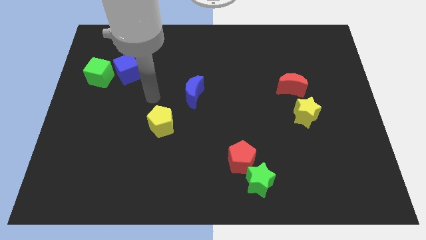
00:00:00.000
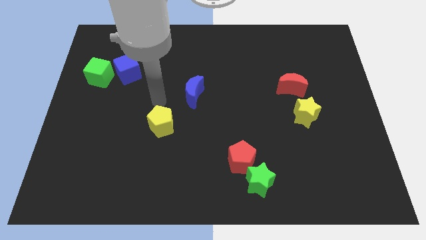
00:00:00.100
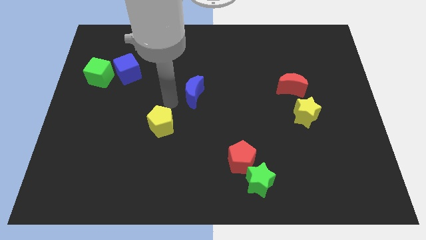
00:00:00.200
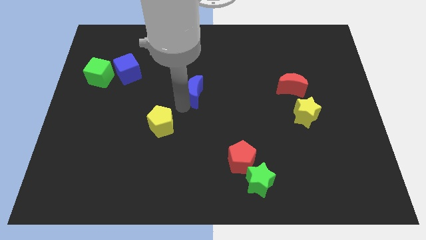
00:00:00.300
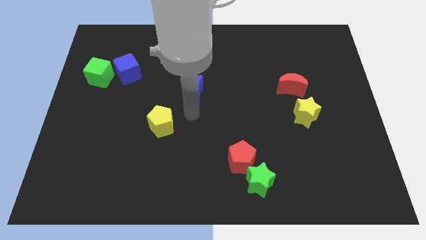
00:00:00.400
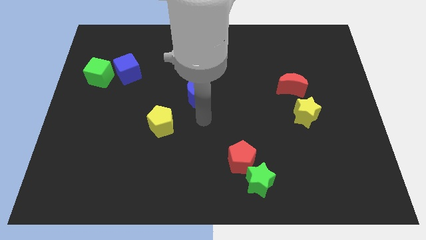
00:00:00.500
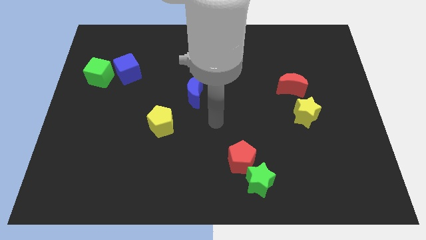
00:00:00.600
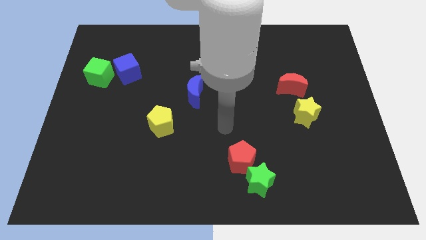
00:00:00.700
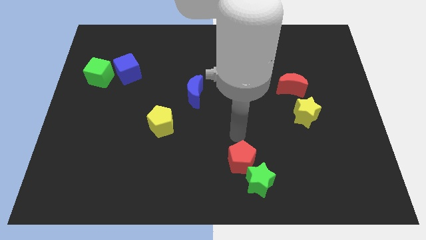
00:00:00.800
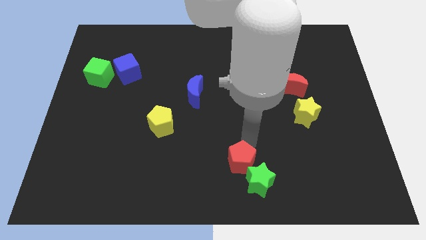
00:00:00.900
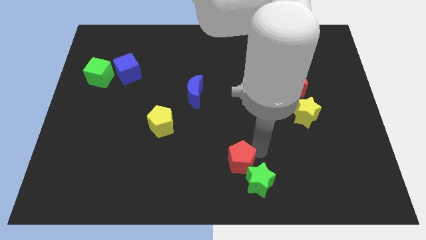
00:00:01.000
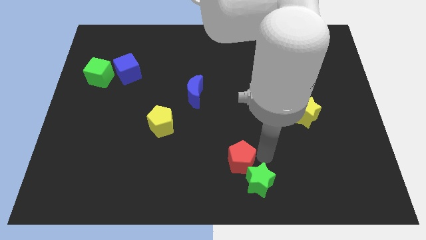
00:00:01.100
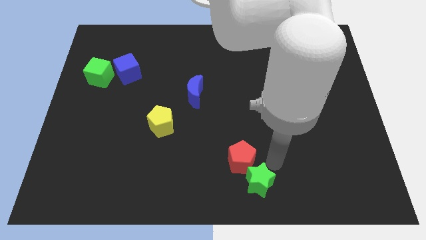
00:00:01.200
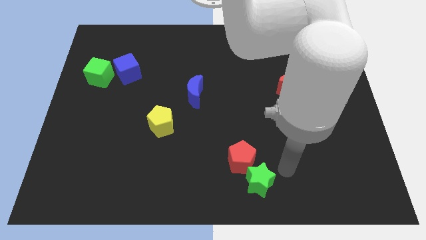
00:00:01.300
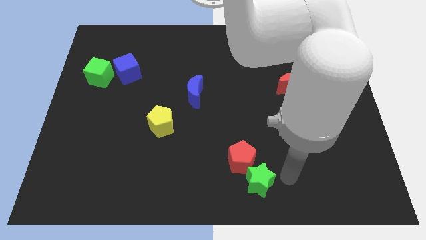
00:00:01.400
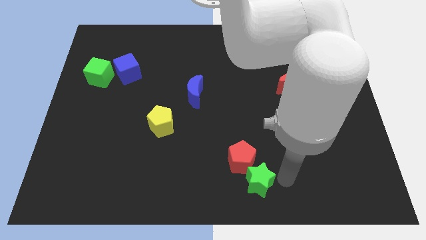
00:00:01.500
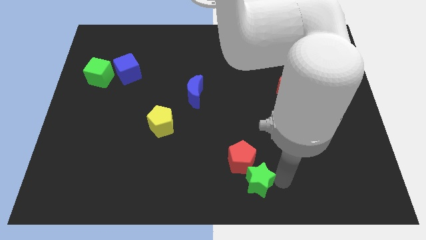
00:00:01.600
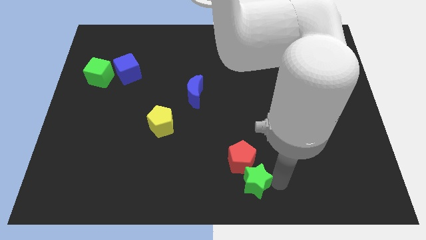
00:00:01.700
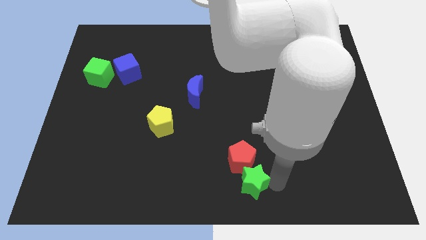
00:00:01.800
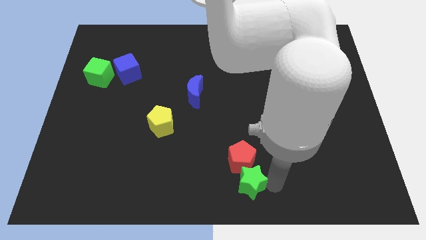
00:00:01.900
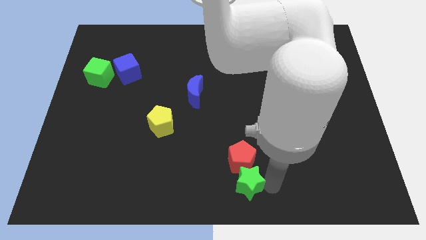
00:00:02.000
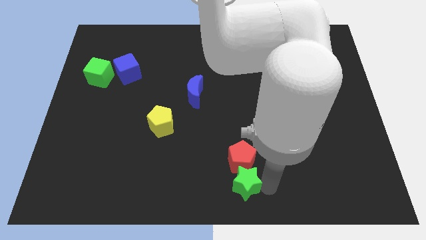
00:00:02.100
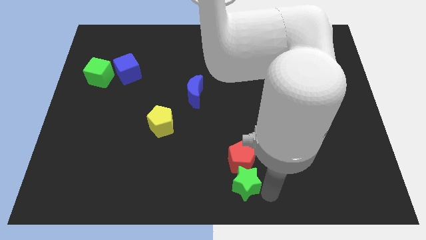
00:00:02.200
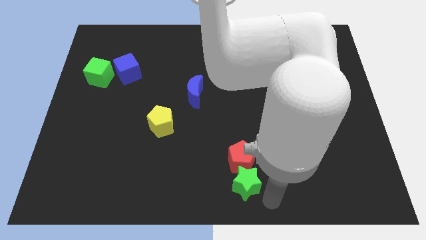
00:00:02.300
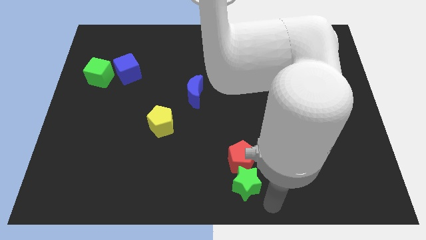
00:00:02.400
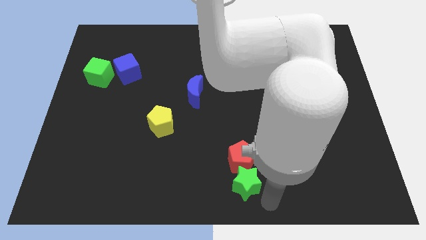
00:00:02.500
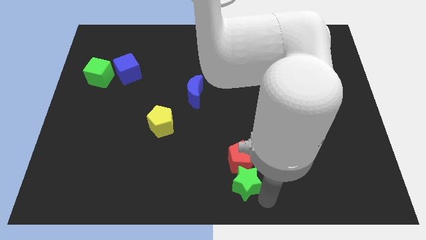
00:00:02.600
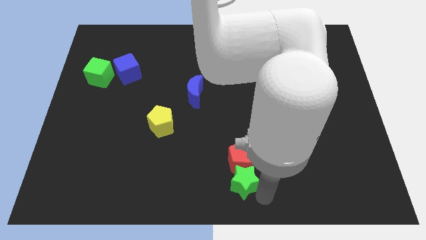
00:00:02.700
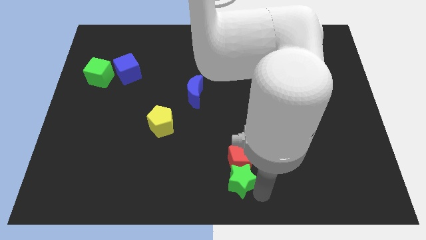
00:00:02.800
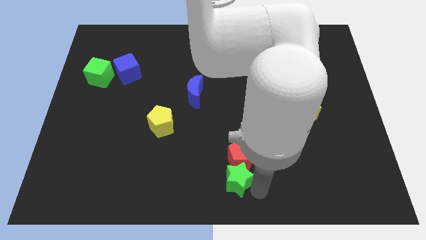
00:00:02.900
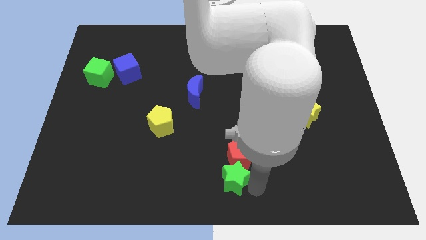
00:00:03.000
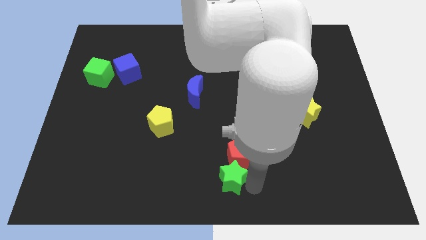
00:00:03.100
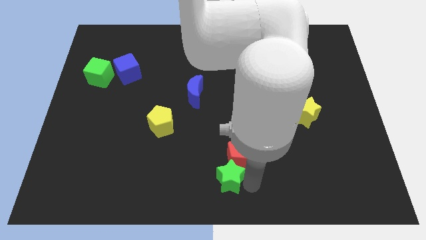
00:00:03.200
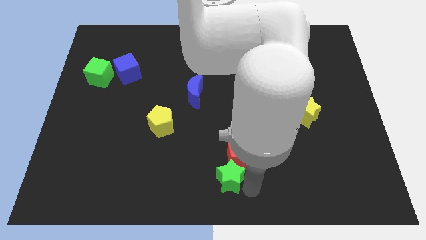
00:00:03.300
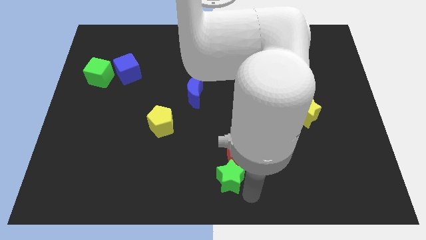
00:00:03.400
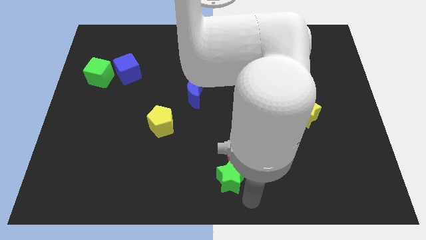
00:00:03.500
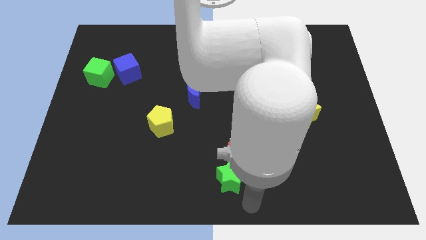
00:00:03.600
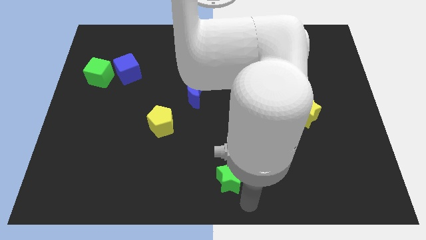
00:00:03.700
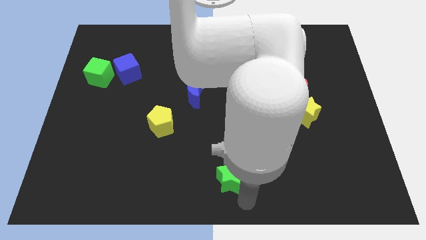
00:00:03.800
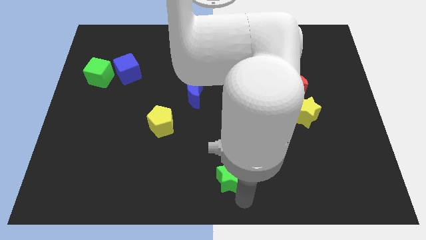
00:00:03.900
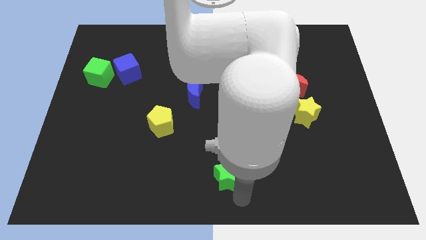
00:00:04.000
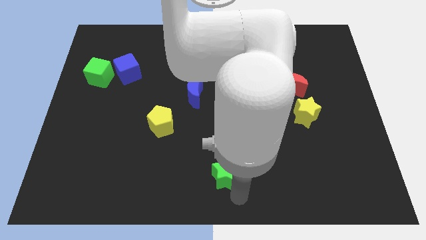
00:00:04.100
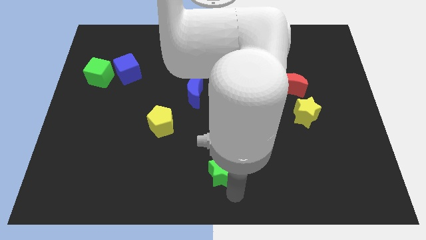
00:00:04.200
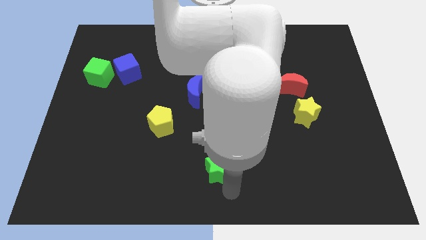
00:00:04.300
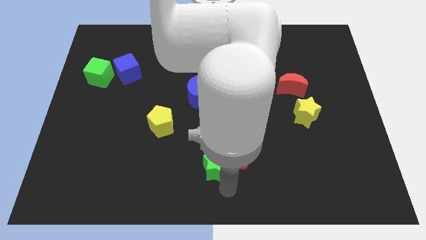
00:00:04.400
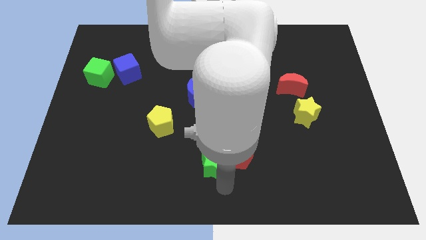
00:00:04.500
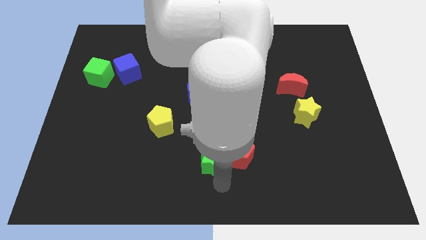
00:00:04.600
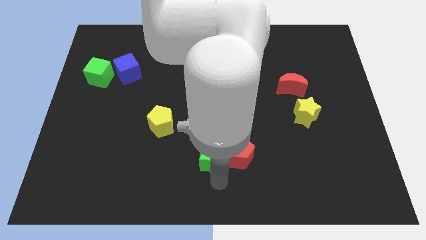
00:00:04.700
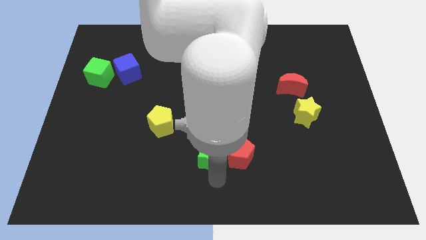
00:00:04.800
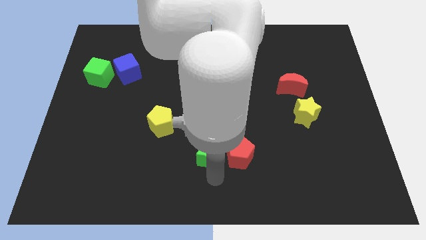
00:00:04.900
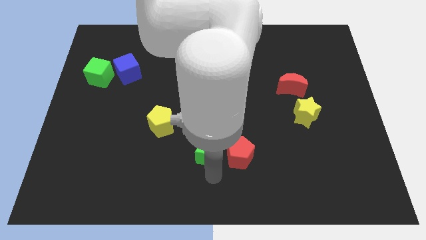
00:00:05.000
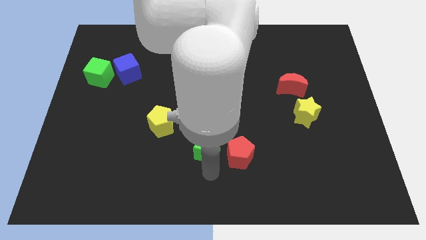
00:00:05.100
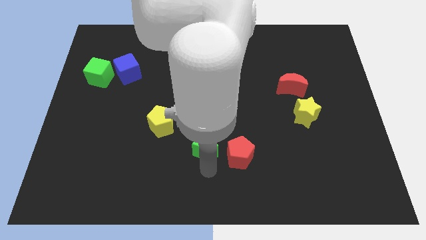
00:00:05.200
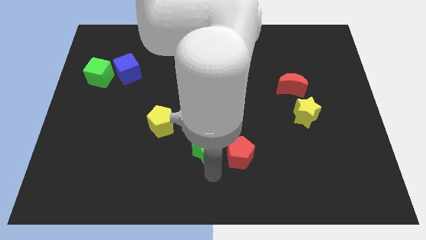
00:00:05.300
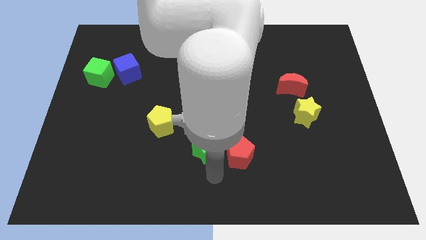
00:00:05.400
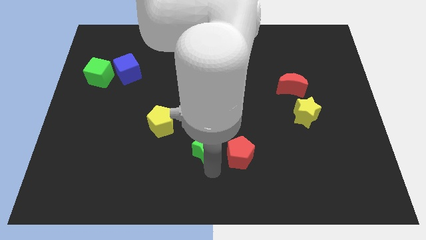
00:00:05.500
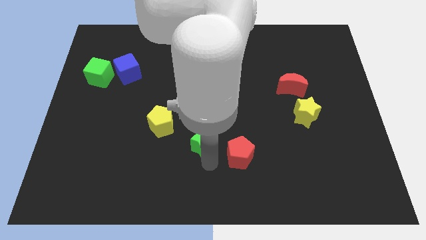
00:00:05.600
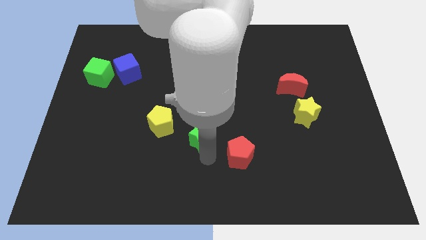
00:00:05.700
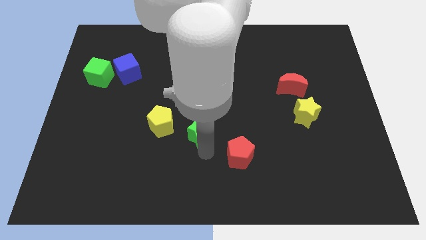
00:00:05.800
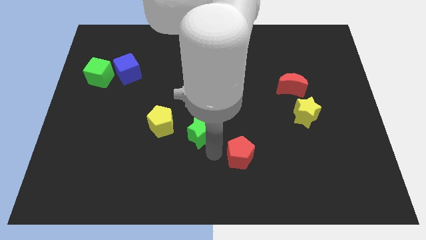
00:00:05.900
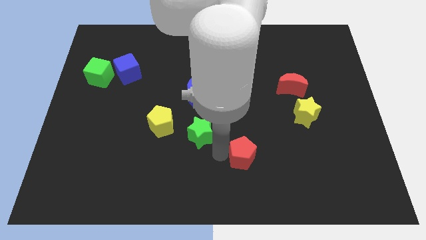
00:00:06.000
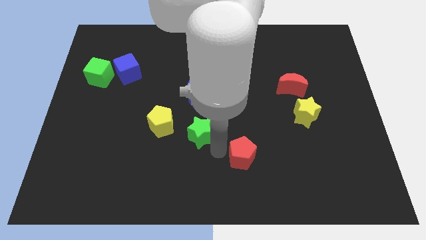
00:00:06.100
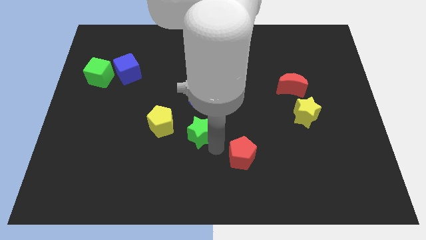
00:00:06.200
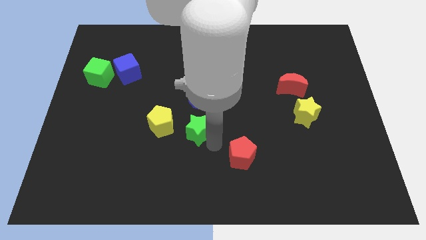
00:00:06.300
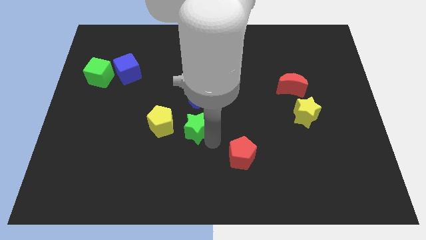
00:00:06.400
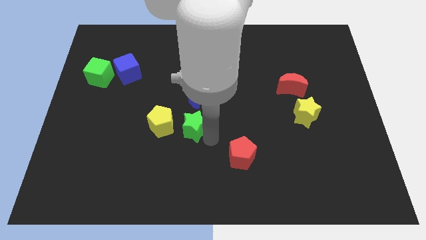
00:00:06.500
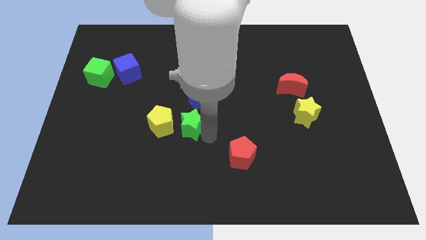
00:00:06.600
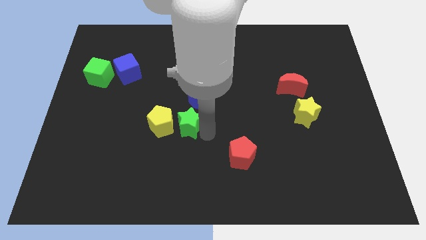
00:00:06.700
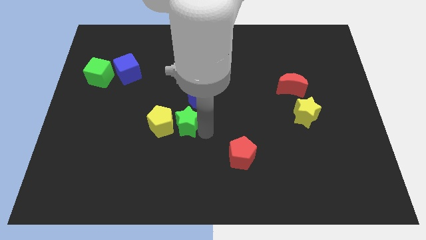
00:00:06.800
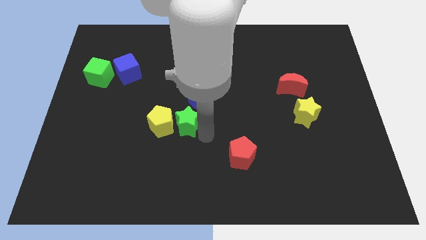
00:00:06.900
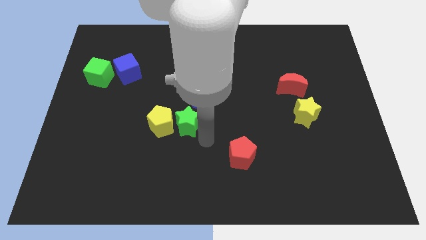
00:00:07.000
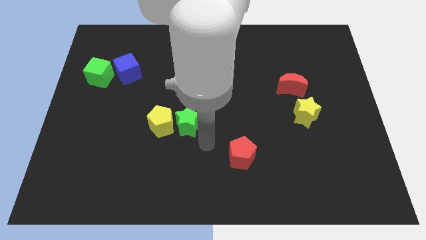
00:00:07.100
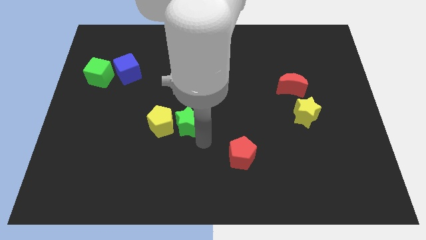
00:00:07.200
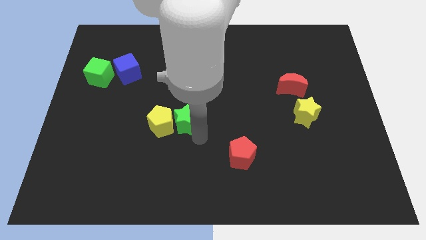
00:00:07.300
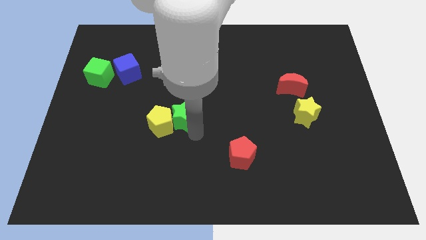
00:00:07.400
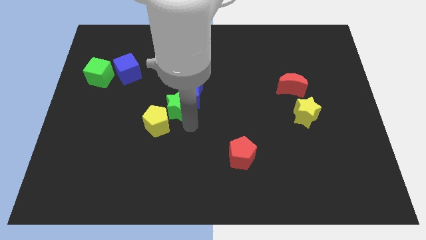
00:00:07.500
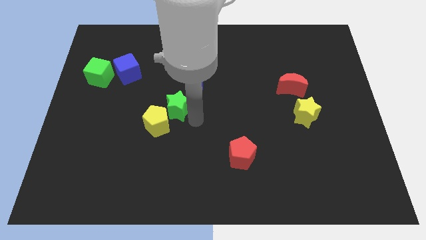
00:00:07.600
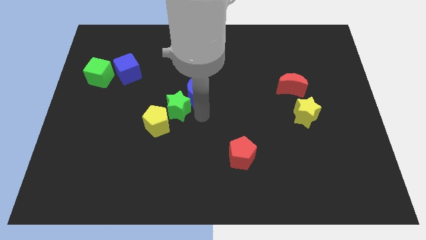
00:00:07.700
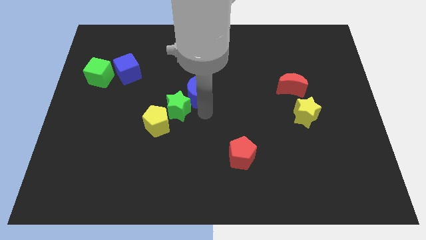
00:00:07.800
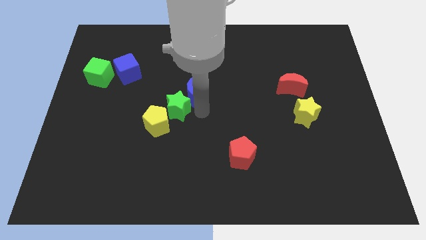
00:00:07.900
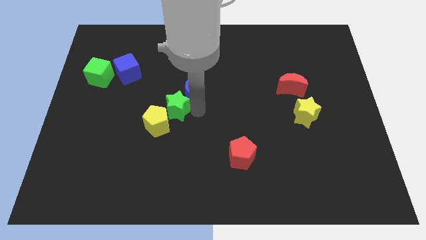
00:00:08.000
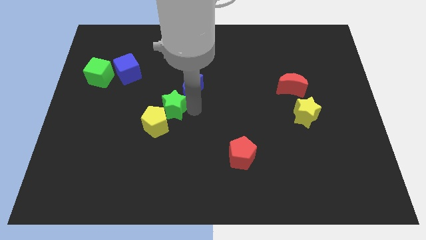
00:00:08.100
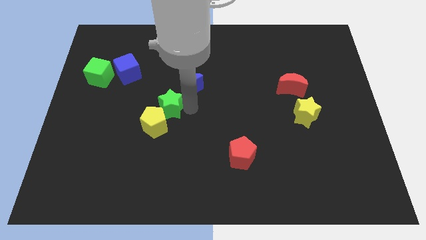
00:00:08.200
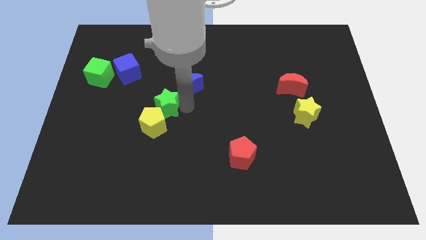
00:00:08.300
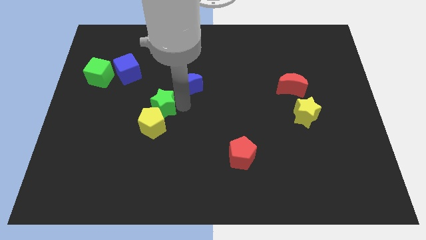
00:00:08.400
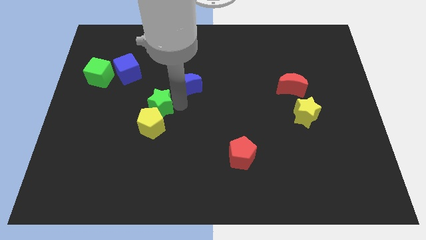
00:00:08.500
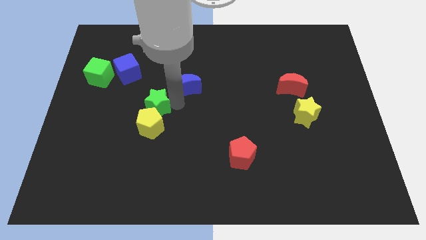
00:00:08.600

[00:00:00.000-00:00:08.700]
slide the green star diagonally up and to the left of the yellow pentagon
